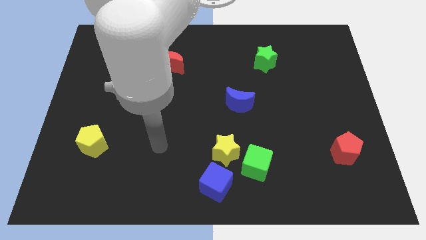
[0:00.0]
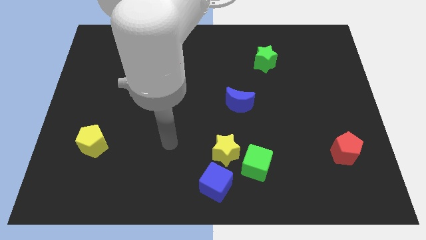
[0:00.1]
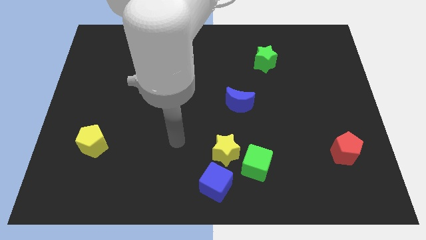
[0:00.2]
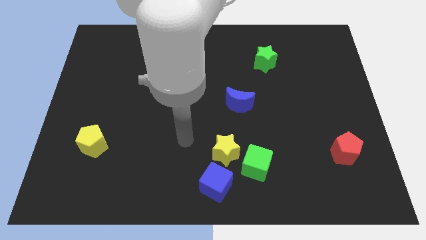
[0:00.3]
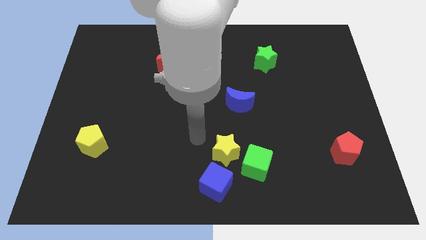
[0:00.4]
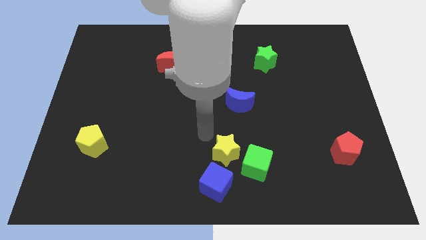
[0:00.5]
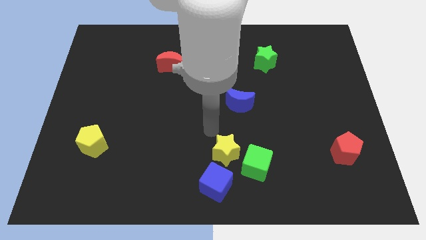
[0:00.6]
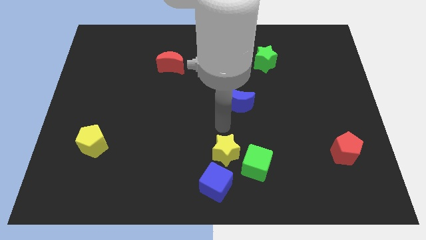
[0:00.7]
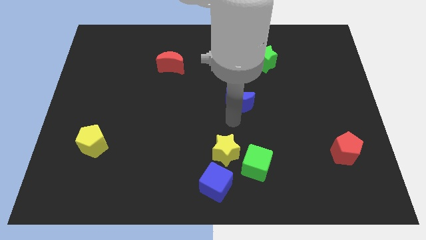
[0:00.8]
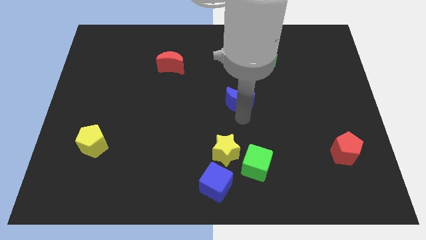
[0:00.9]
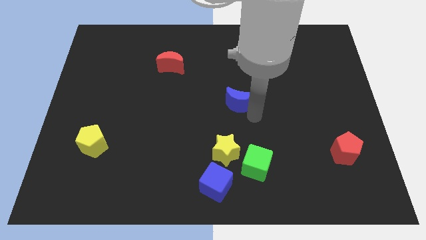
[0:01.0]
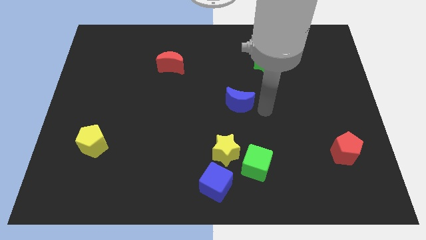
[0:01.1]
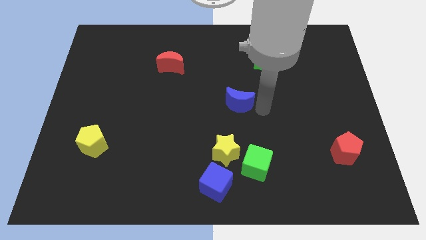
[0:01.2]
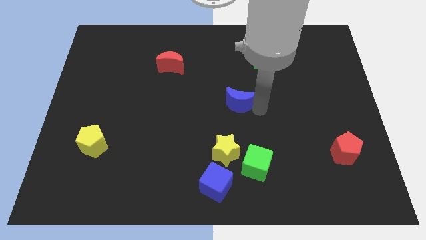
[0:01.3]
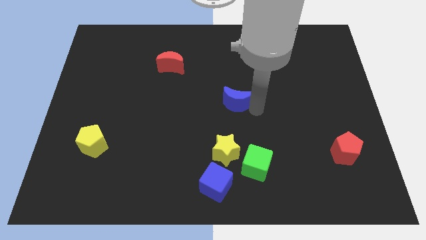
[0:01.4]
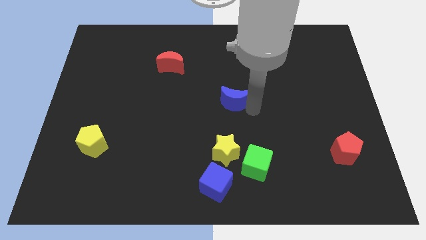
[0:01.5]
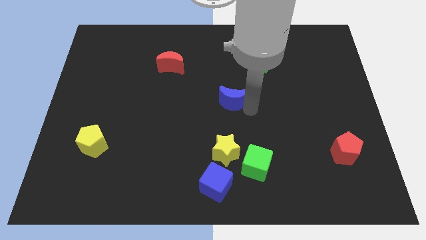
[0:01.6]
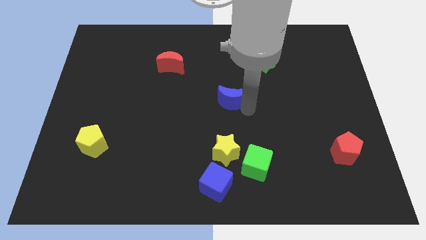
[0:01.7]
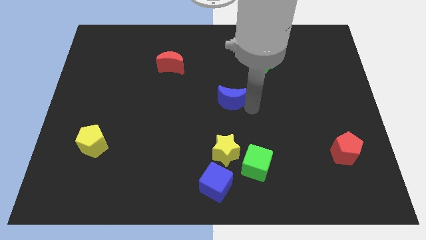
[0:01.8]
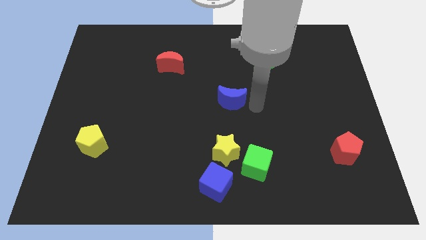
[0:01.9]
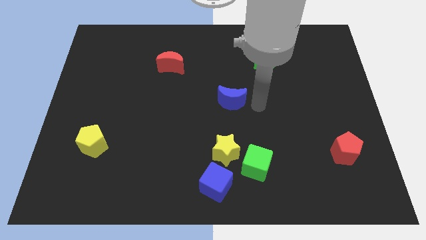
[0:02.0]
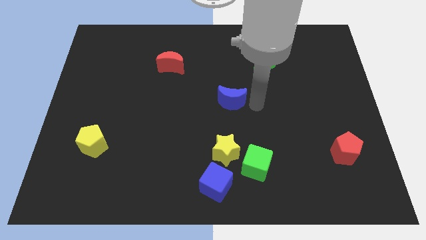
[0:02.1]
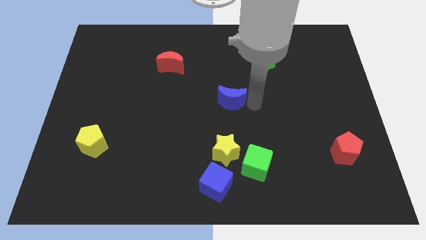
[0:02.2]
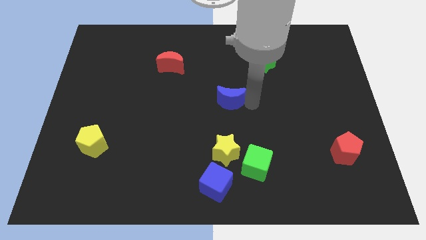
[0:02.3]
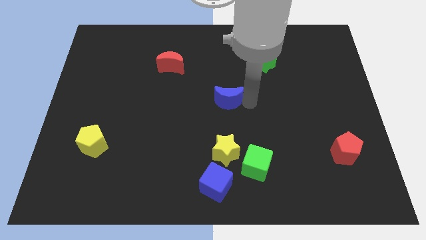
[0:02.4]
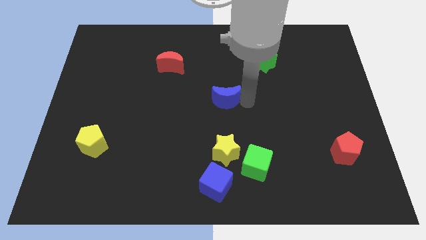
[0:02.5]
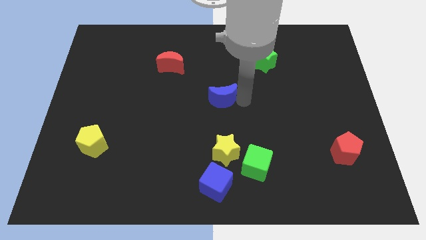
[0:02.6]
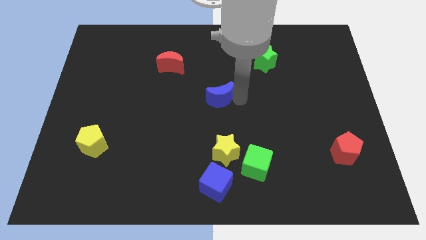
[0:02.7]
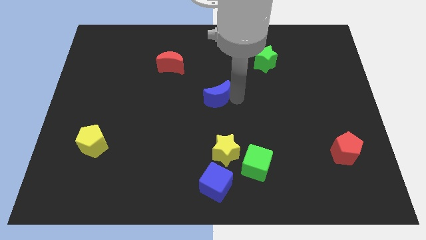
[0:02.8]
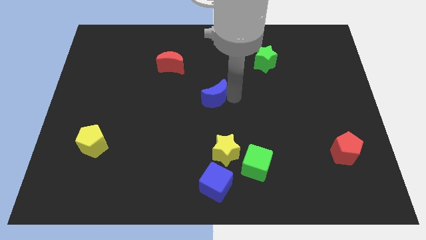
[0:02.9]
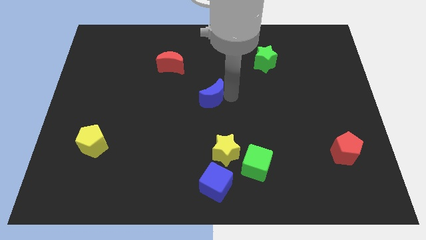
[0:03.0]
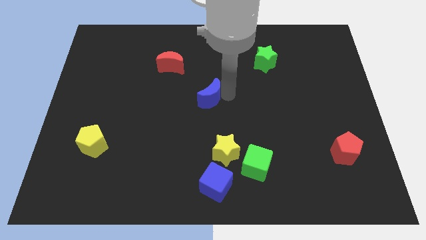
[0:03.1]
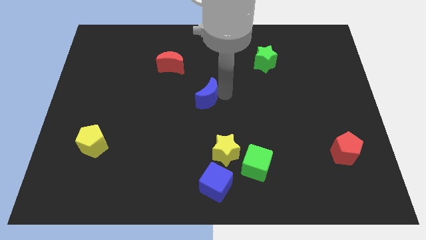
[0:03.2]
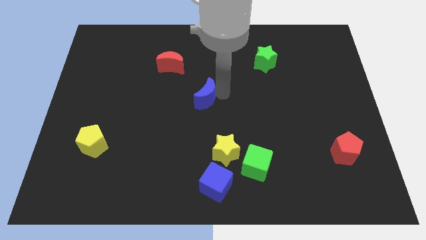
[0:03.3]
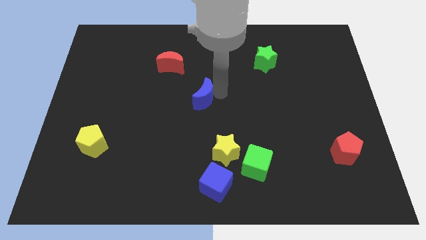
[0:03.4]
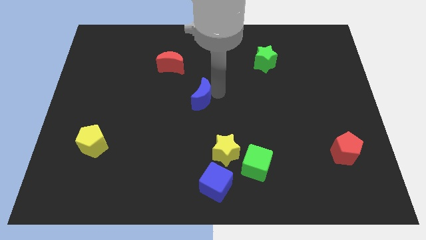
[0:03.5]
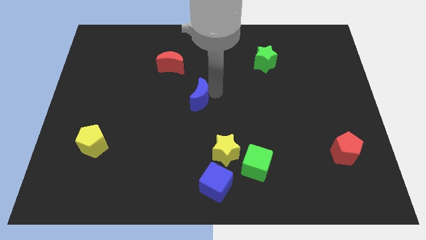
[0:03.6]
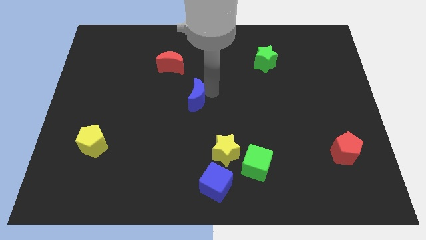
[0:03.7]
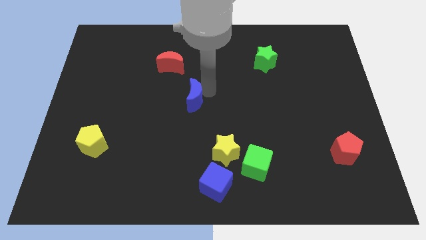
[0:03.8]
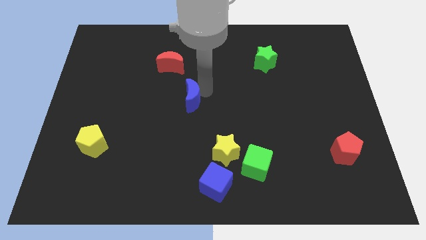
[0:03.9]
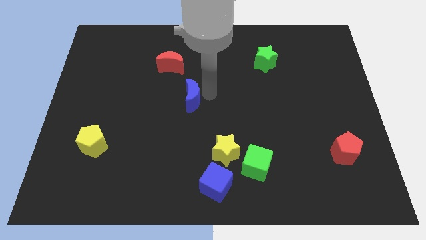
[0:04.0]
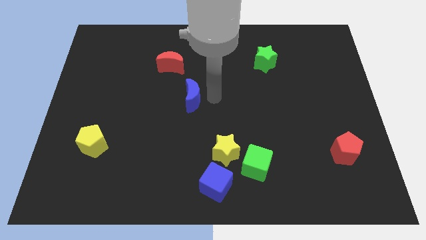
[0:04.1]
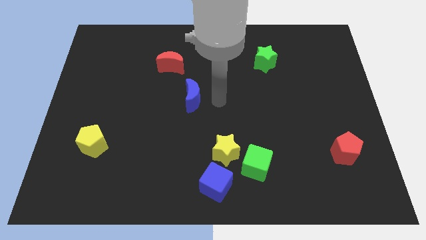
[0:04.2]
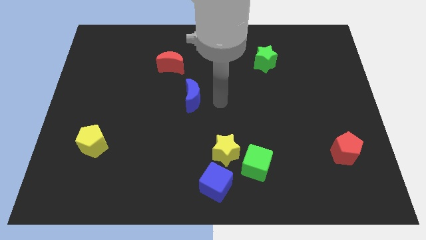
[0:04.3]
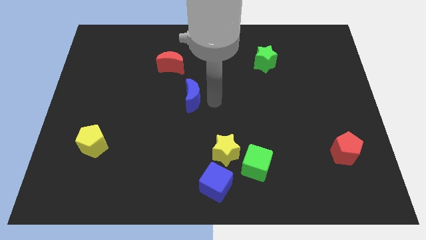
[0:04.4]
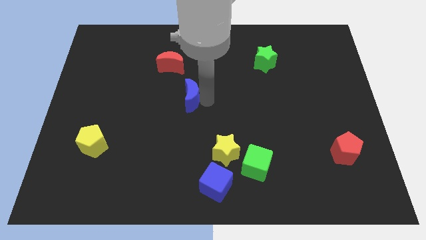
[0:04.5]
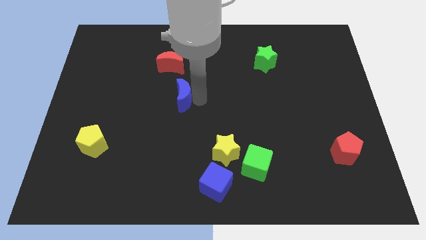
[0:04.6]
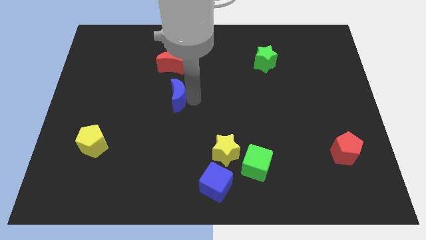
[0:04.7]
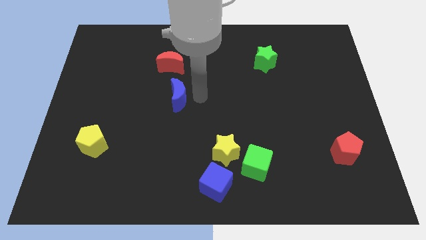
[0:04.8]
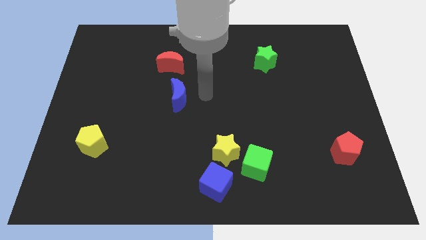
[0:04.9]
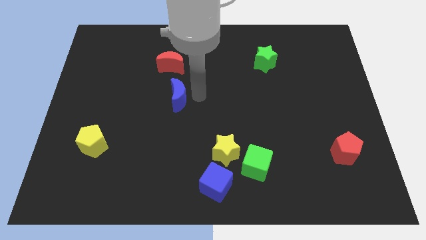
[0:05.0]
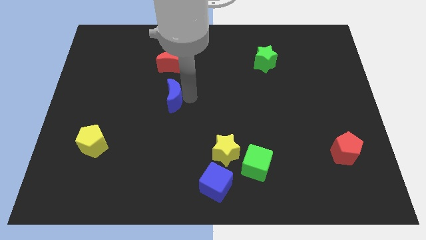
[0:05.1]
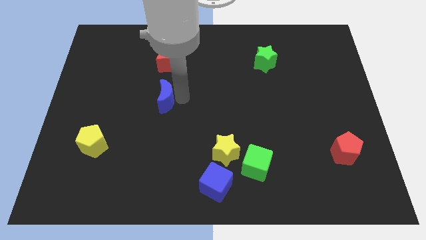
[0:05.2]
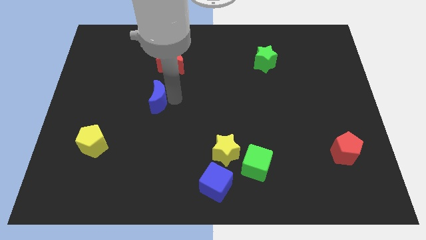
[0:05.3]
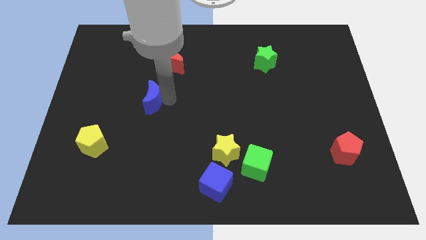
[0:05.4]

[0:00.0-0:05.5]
move the blue moon to the left

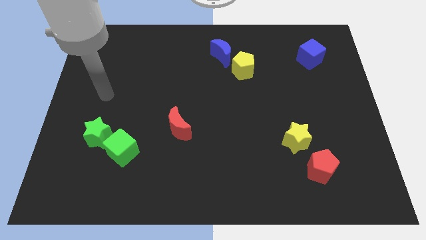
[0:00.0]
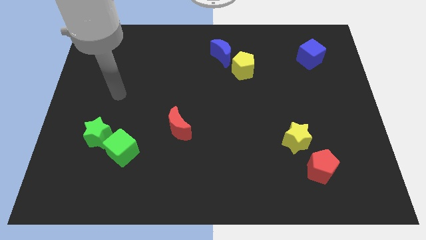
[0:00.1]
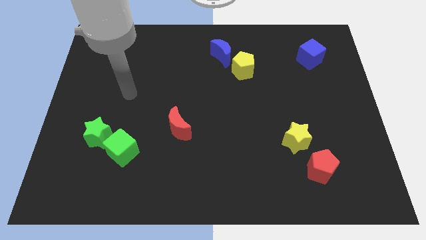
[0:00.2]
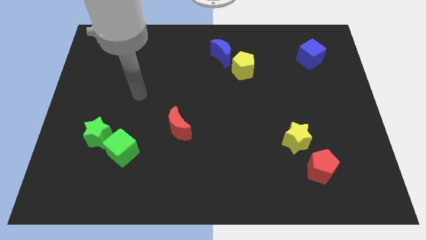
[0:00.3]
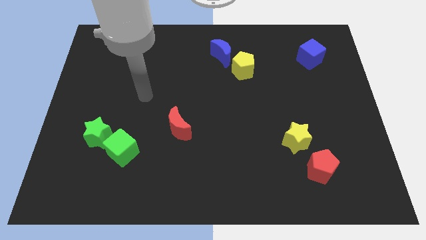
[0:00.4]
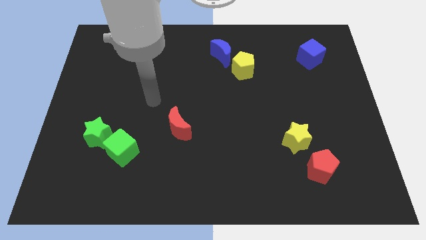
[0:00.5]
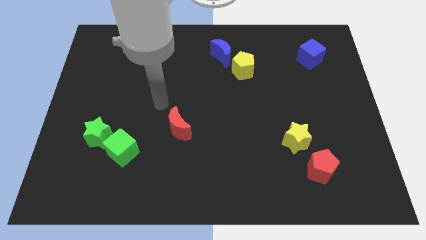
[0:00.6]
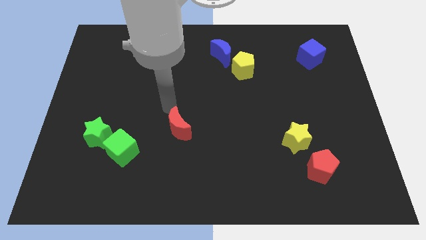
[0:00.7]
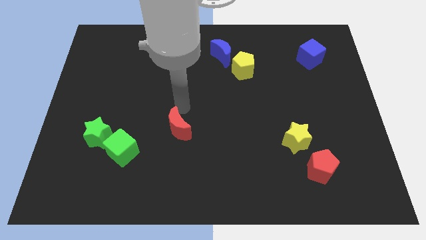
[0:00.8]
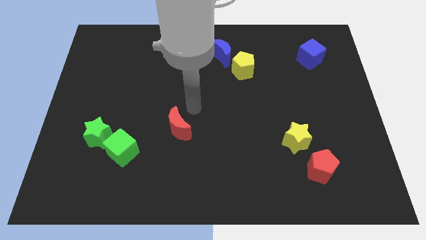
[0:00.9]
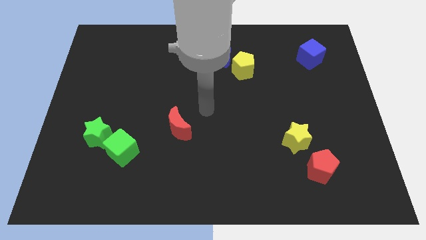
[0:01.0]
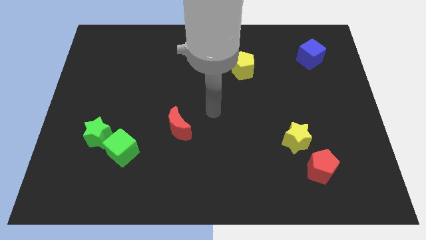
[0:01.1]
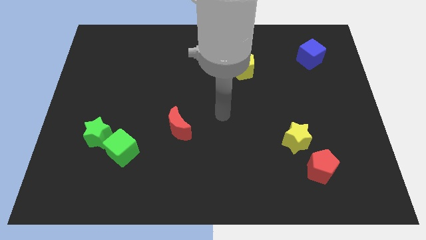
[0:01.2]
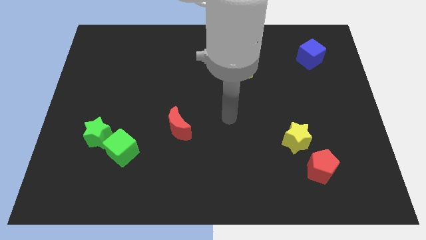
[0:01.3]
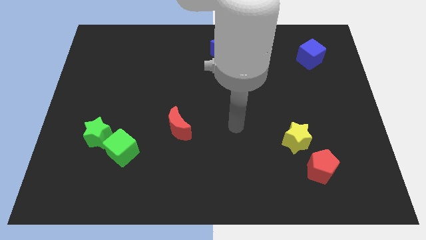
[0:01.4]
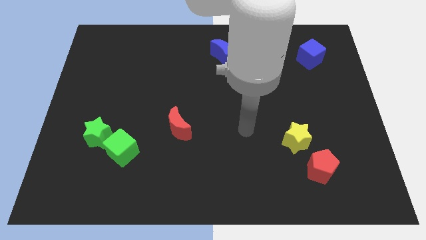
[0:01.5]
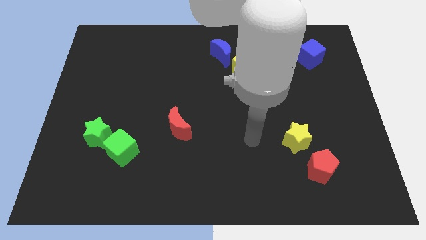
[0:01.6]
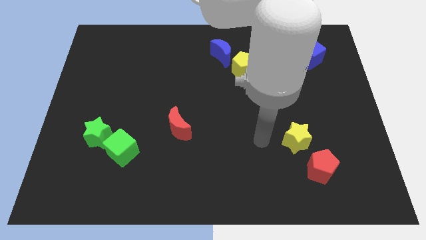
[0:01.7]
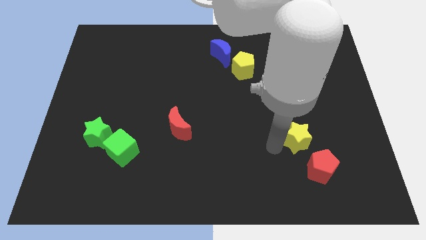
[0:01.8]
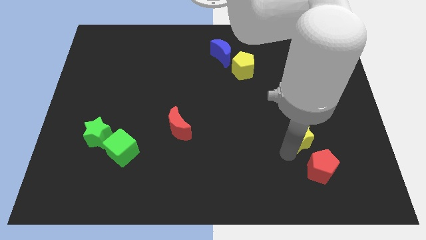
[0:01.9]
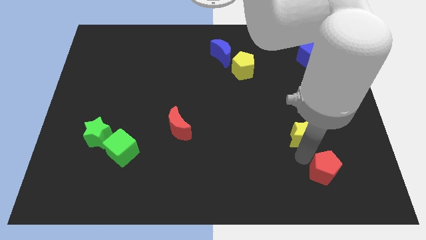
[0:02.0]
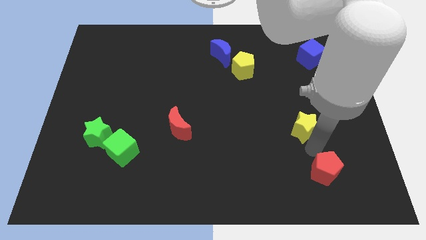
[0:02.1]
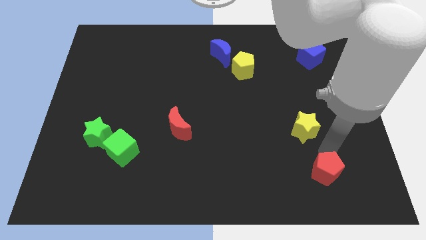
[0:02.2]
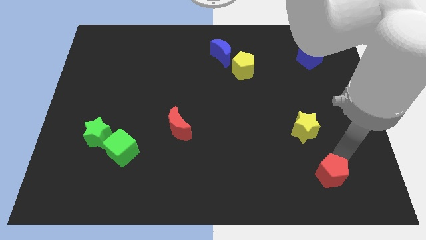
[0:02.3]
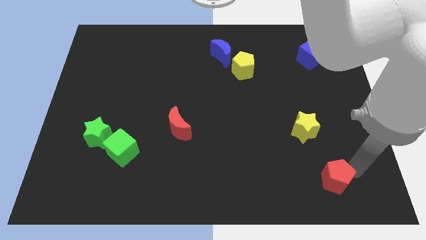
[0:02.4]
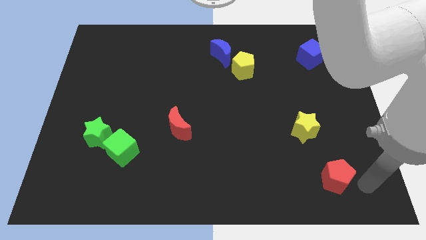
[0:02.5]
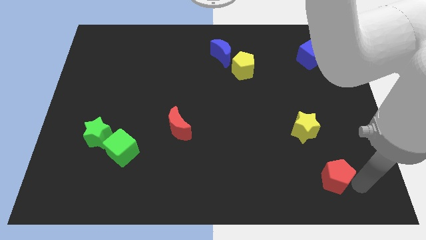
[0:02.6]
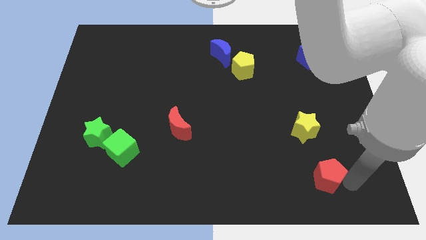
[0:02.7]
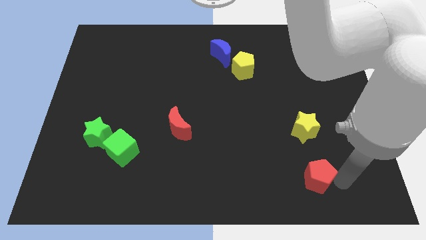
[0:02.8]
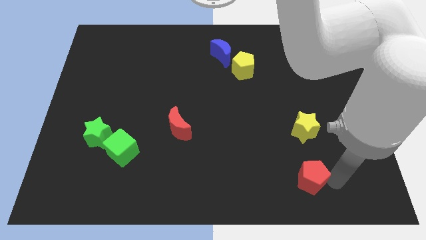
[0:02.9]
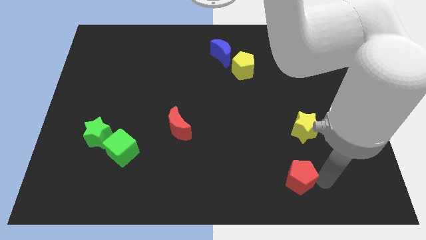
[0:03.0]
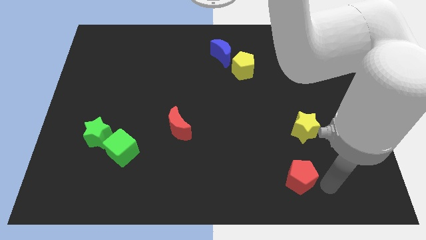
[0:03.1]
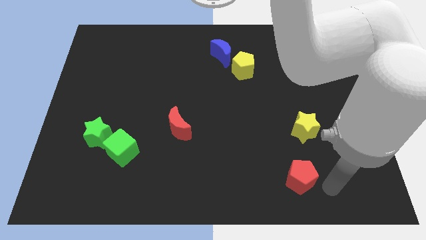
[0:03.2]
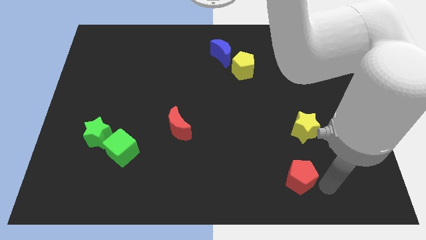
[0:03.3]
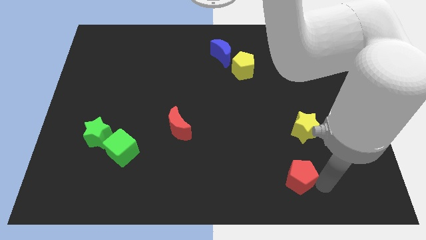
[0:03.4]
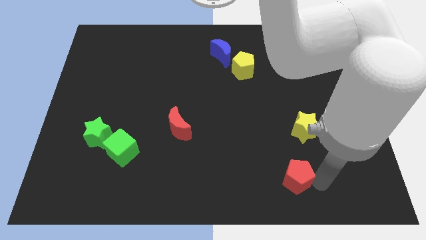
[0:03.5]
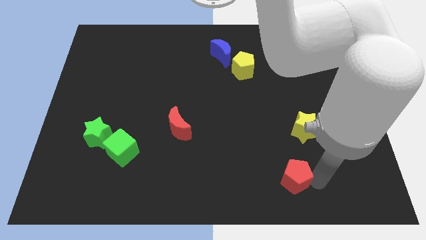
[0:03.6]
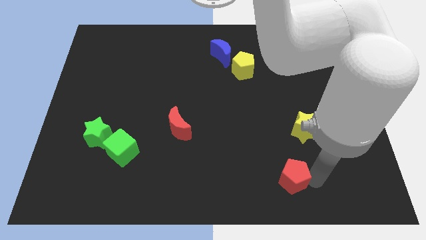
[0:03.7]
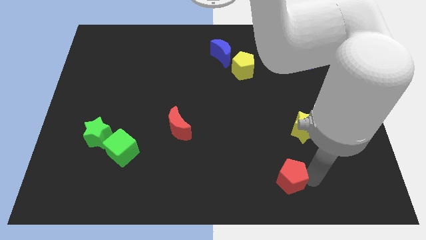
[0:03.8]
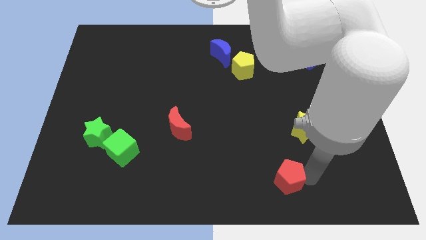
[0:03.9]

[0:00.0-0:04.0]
move the red pentagon to the left a bit
